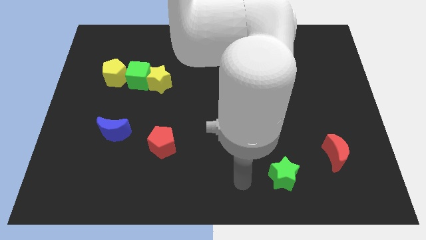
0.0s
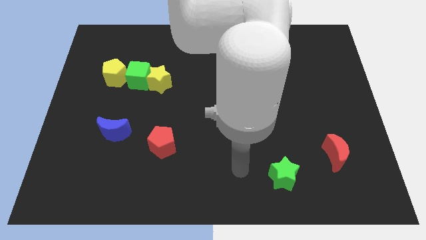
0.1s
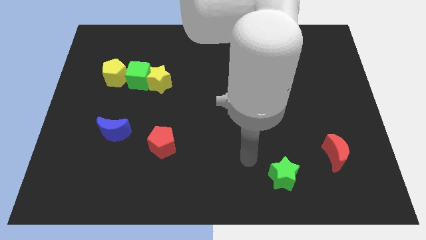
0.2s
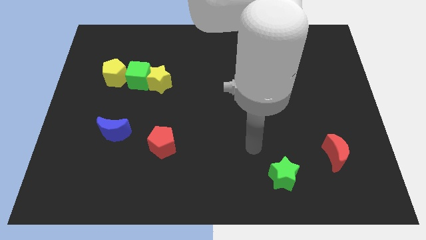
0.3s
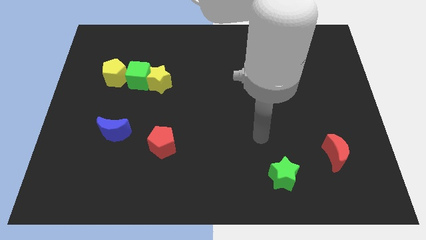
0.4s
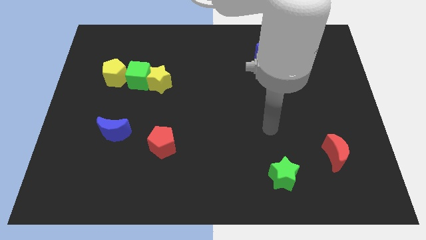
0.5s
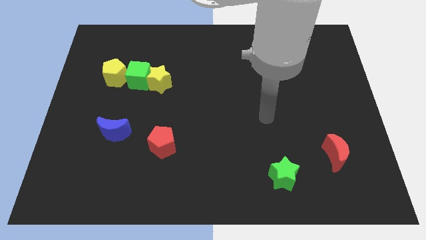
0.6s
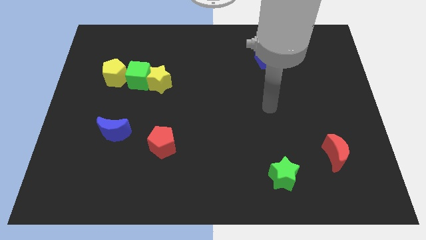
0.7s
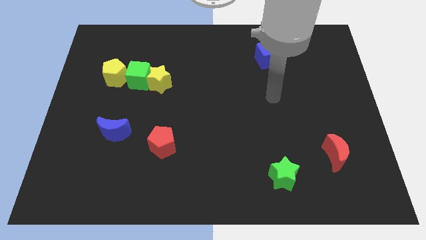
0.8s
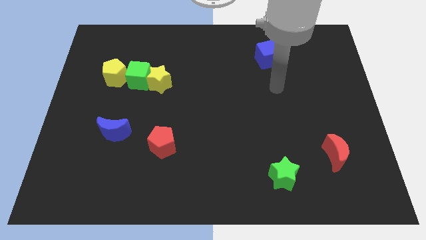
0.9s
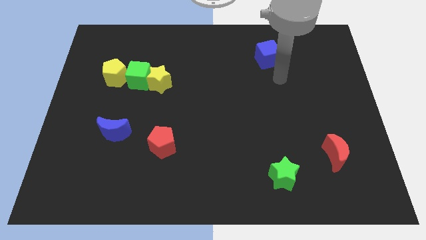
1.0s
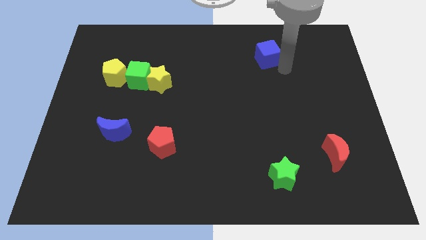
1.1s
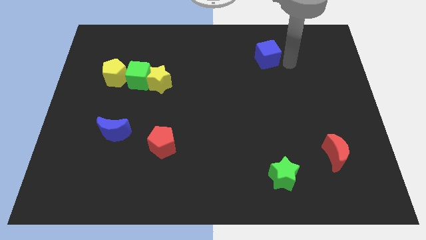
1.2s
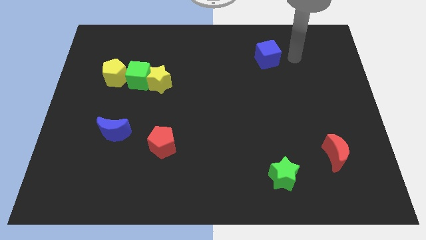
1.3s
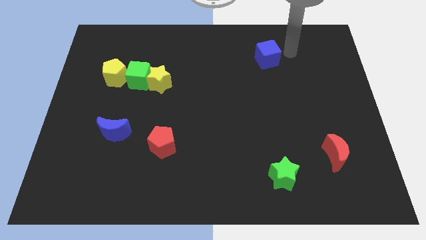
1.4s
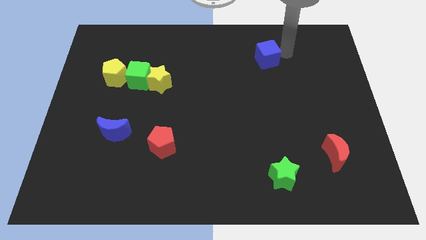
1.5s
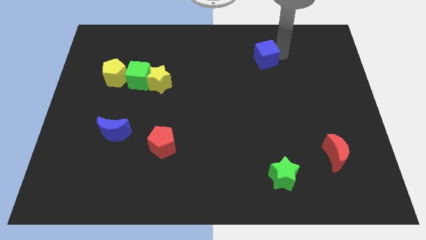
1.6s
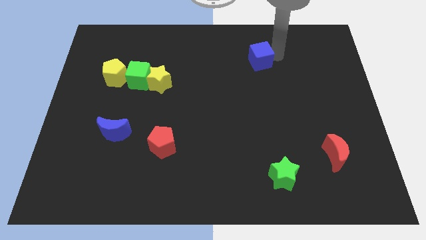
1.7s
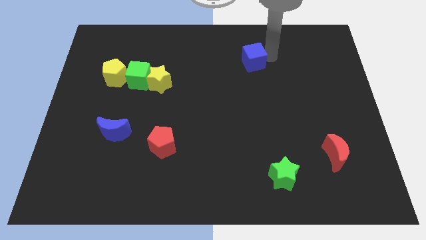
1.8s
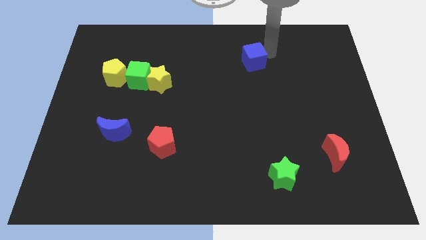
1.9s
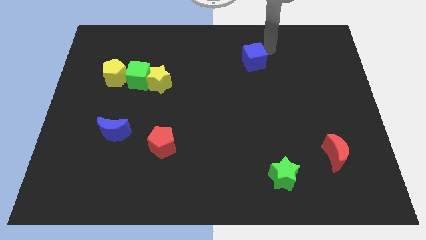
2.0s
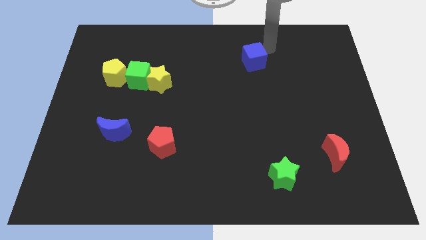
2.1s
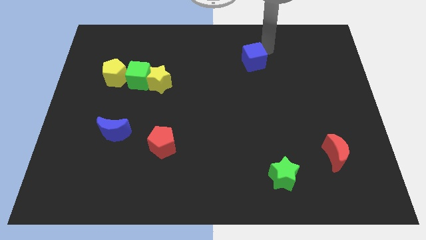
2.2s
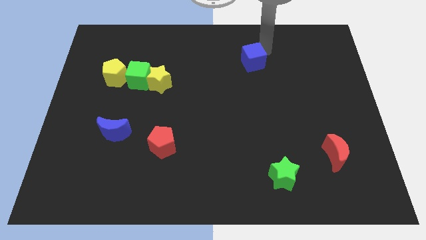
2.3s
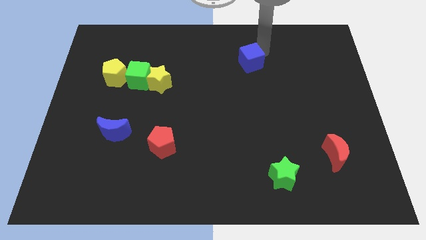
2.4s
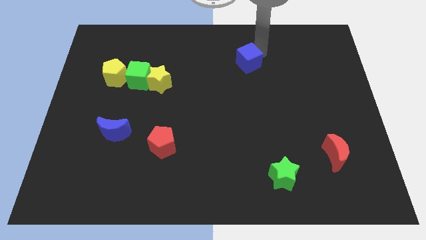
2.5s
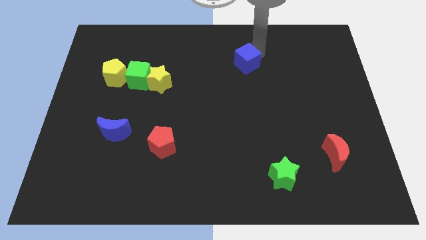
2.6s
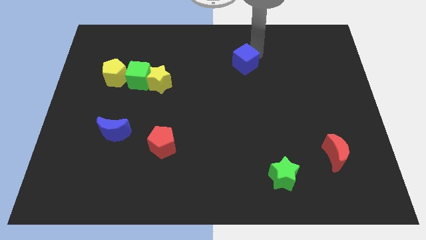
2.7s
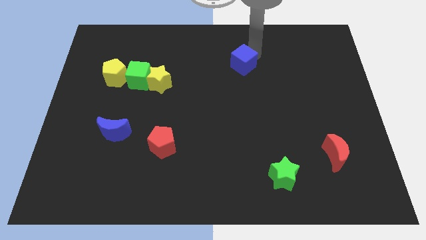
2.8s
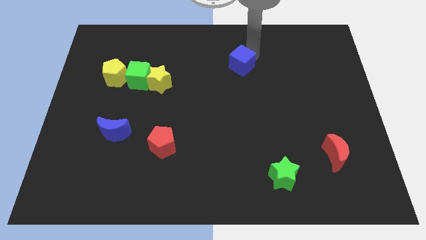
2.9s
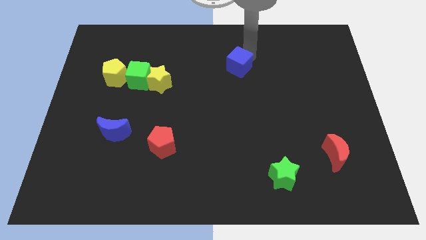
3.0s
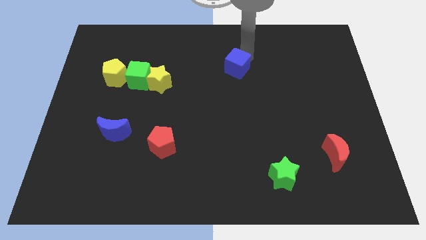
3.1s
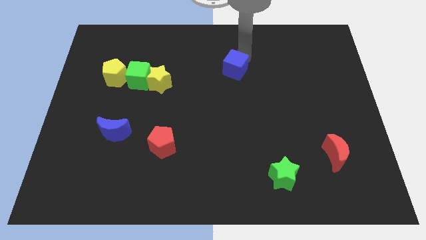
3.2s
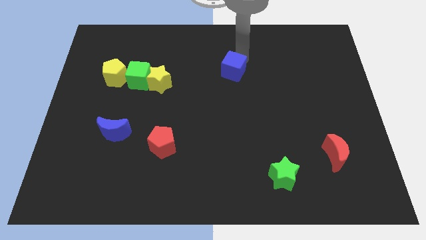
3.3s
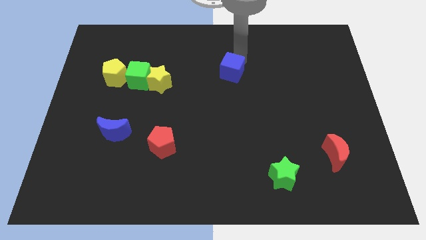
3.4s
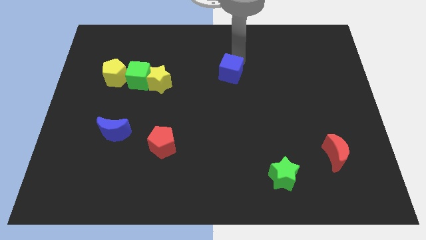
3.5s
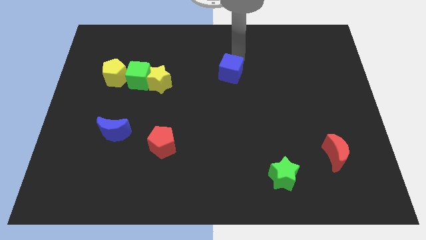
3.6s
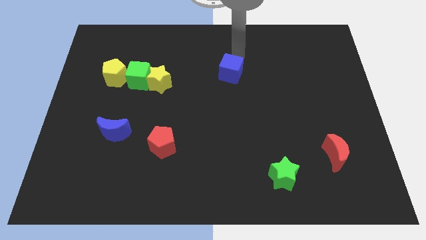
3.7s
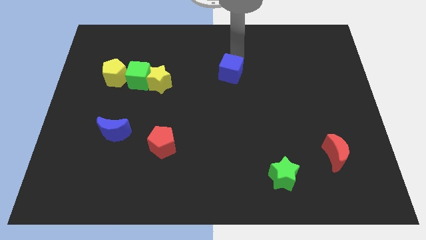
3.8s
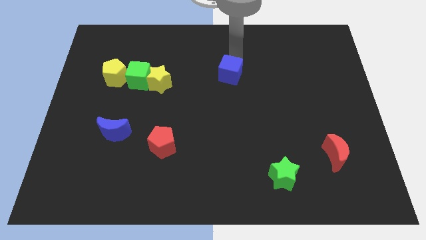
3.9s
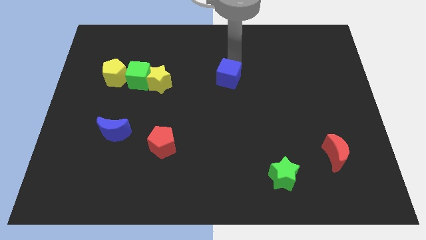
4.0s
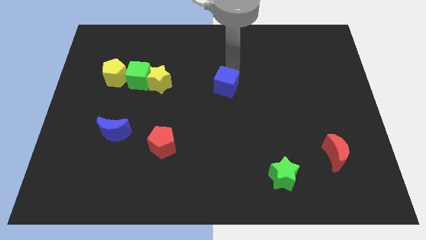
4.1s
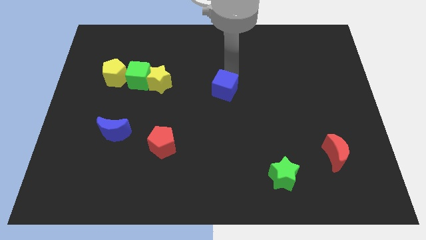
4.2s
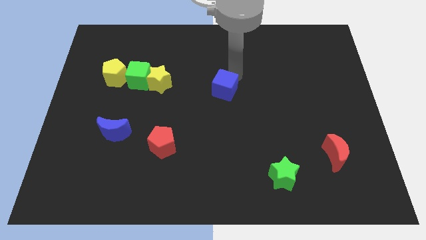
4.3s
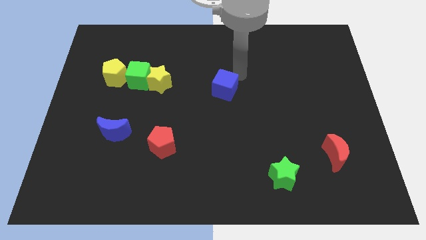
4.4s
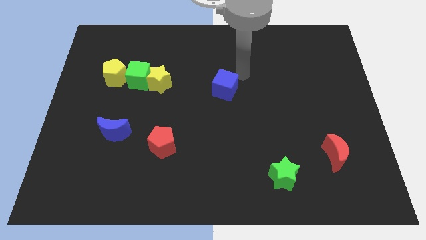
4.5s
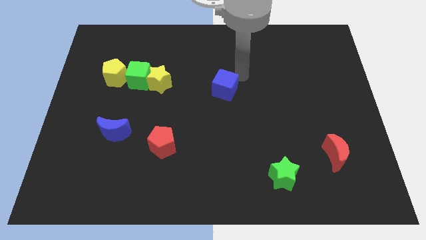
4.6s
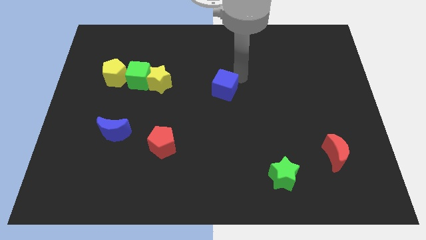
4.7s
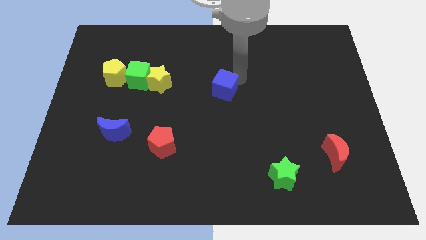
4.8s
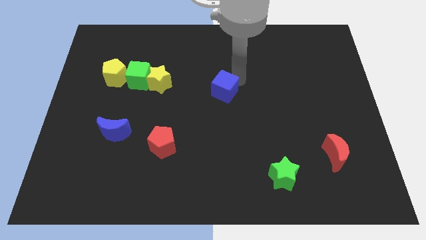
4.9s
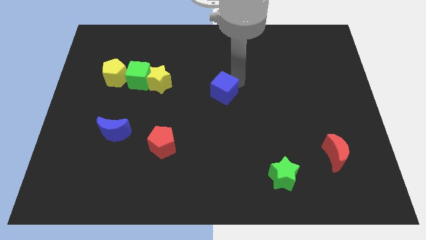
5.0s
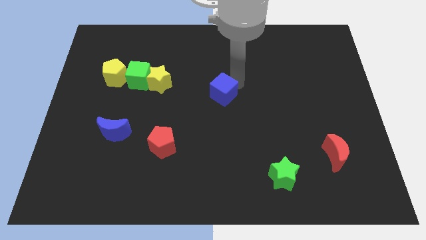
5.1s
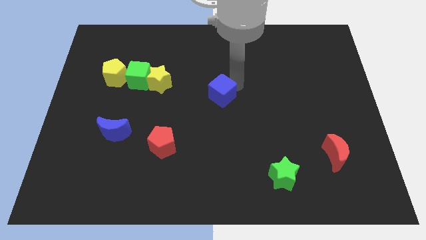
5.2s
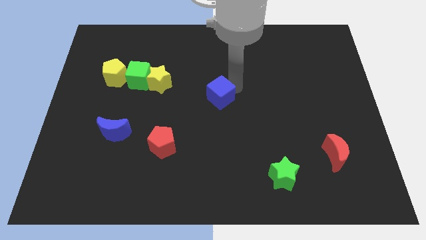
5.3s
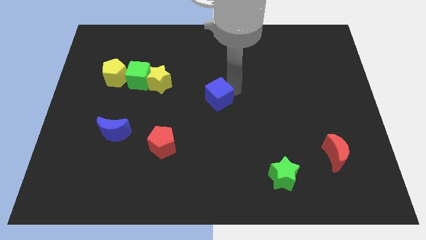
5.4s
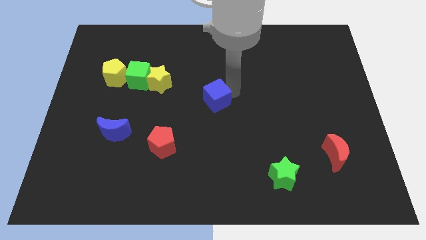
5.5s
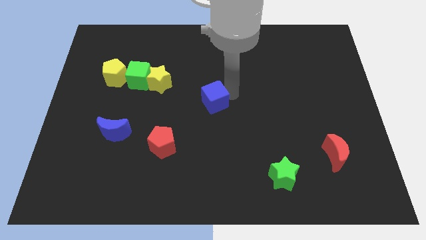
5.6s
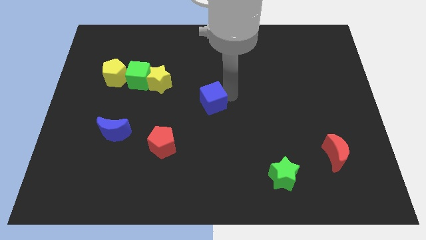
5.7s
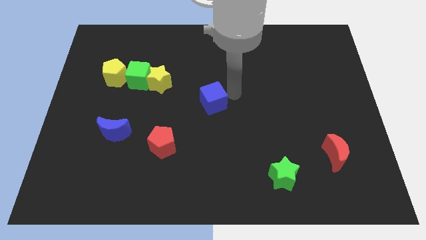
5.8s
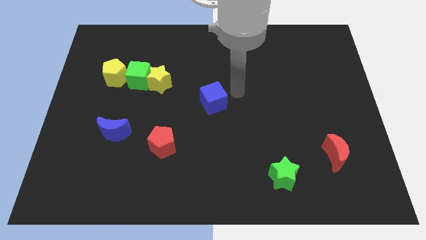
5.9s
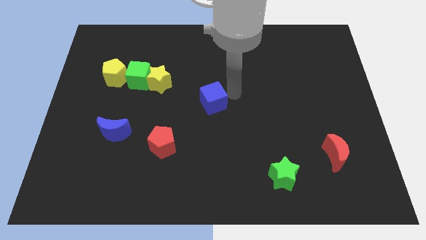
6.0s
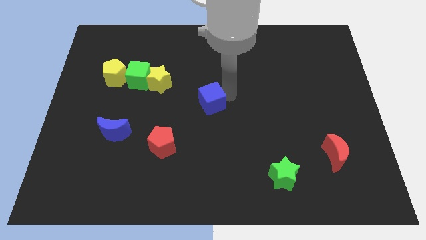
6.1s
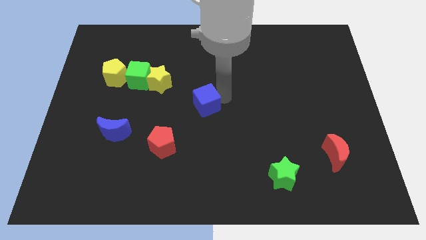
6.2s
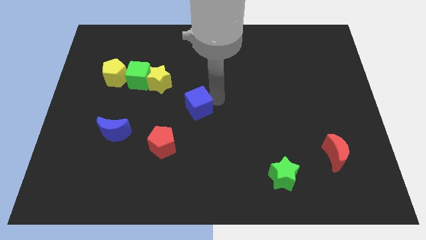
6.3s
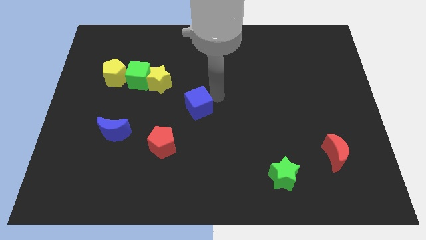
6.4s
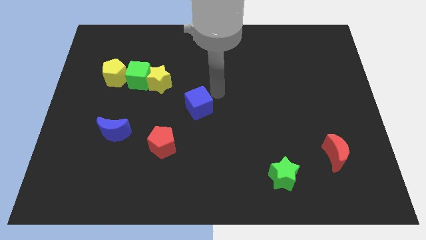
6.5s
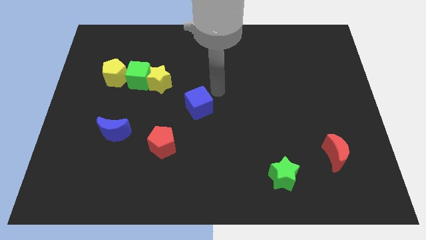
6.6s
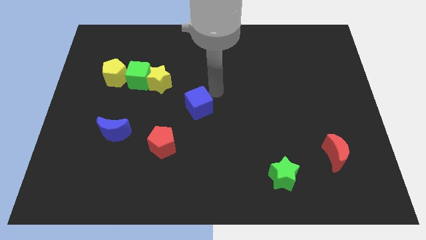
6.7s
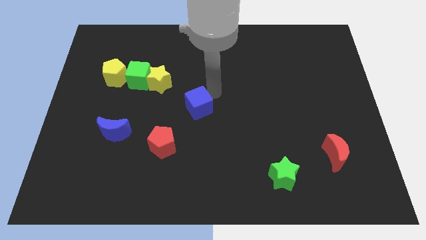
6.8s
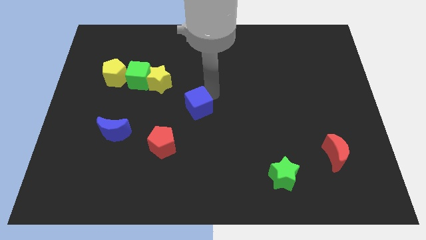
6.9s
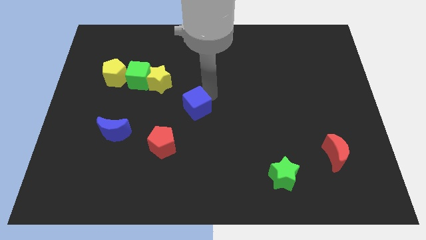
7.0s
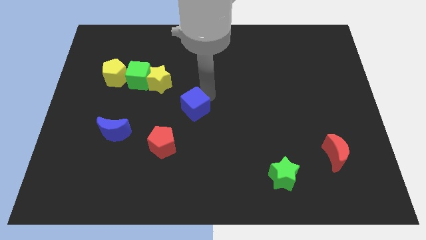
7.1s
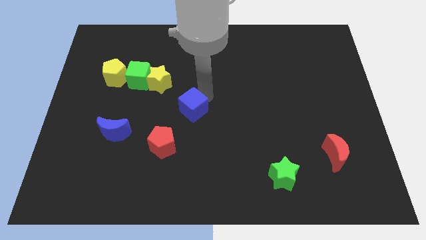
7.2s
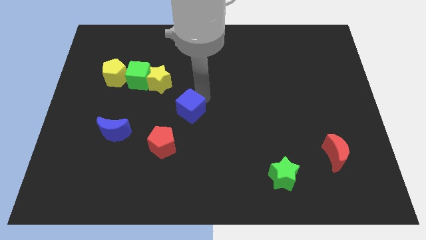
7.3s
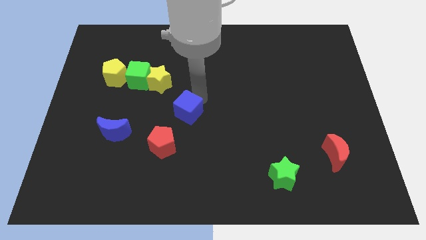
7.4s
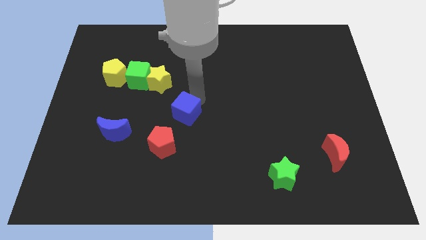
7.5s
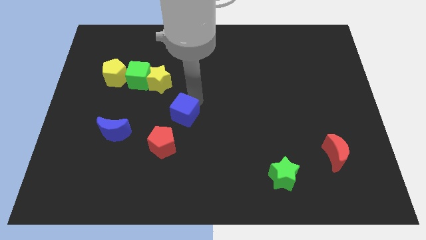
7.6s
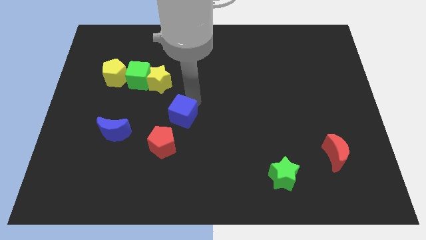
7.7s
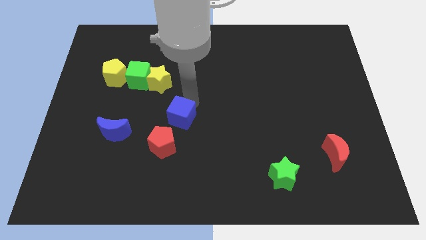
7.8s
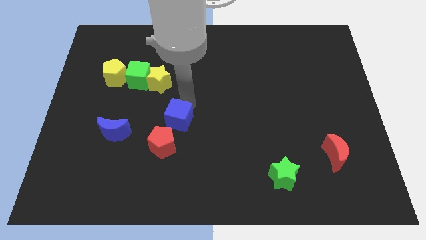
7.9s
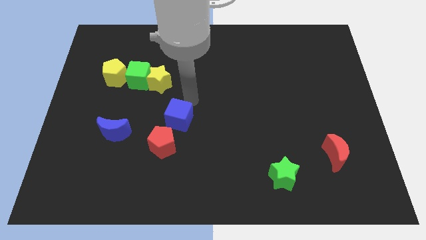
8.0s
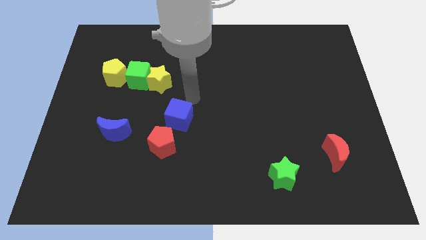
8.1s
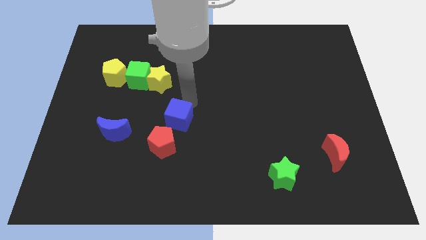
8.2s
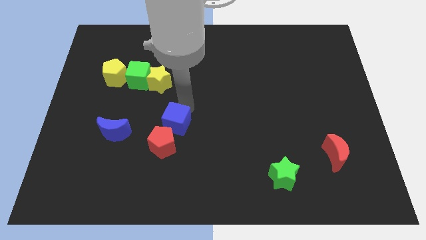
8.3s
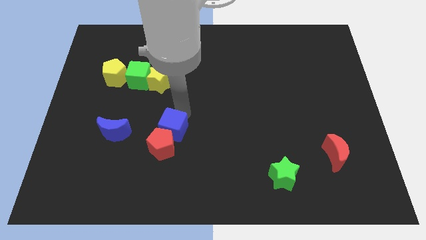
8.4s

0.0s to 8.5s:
move the blue cube to the red pentagon
